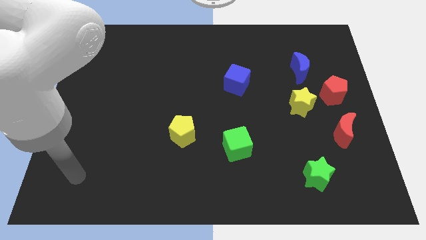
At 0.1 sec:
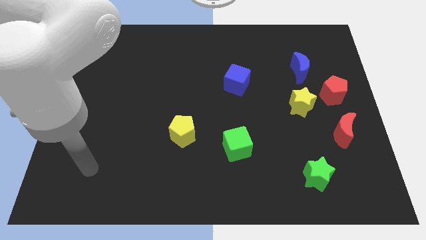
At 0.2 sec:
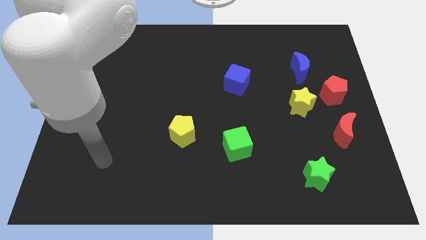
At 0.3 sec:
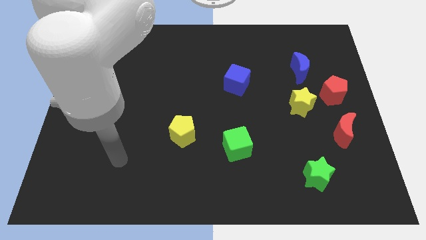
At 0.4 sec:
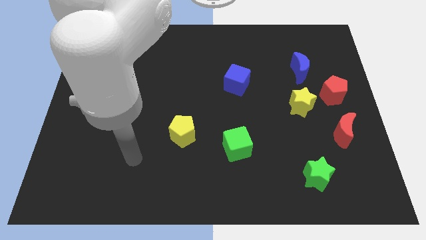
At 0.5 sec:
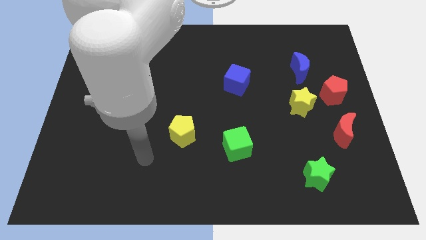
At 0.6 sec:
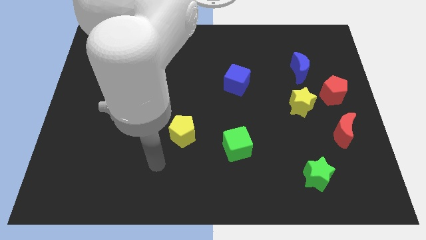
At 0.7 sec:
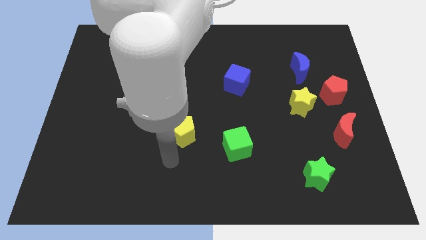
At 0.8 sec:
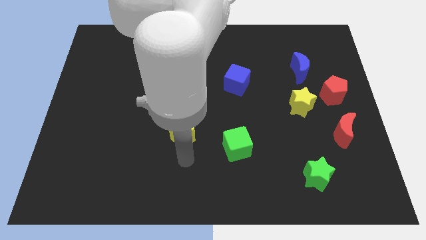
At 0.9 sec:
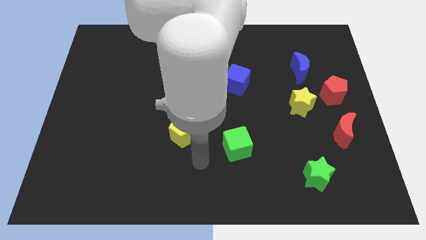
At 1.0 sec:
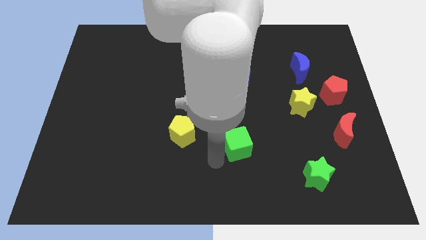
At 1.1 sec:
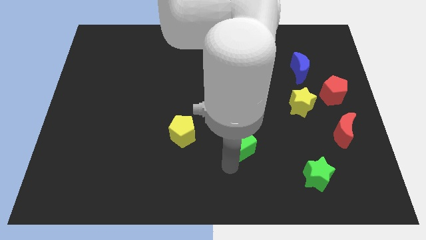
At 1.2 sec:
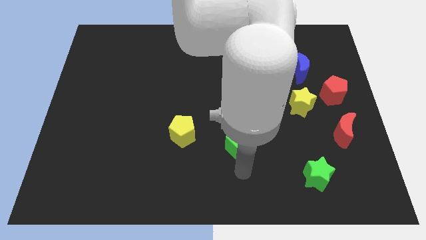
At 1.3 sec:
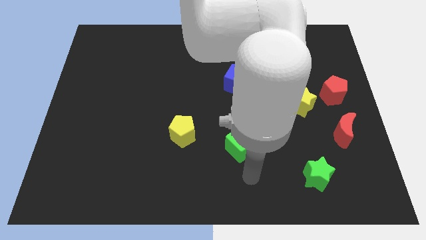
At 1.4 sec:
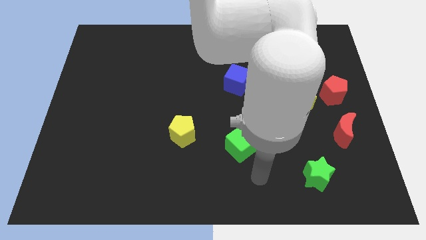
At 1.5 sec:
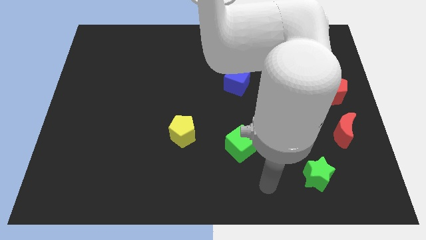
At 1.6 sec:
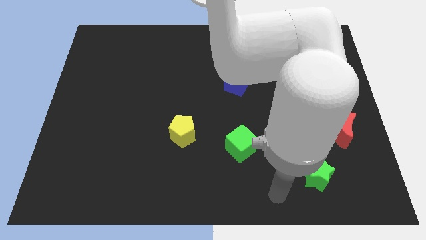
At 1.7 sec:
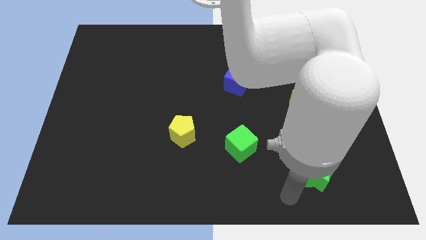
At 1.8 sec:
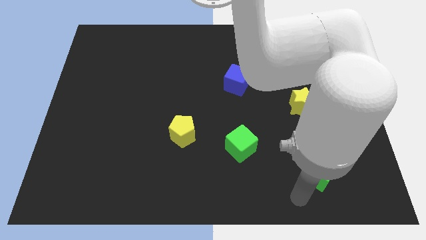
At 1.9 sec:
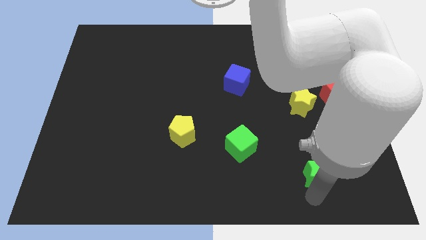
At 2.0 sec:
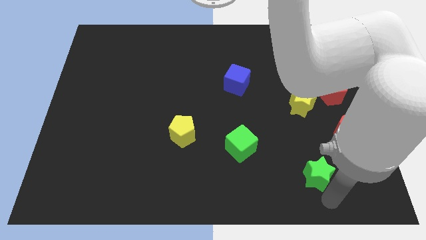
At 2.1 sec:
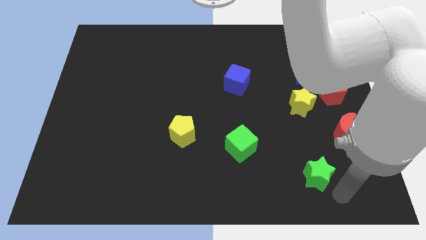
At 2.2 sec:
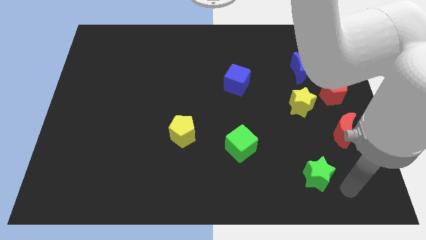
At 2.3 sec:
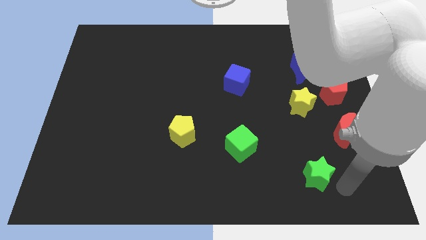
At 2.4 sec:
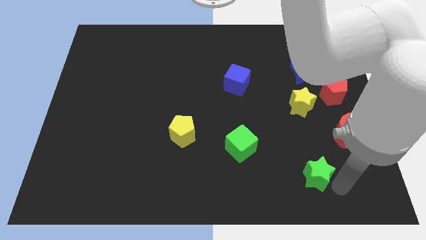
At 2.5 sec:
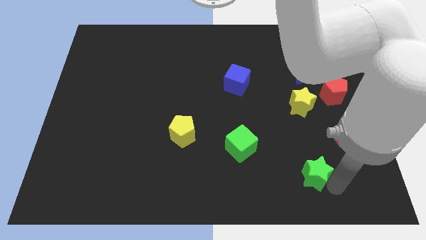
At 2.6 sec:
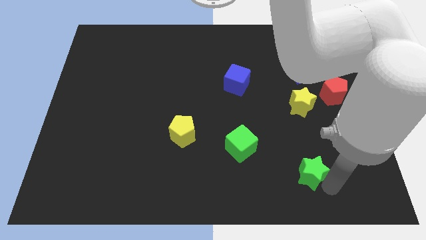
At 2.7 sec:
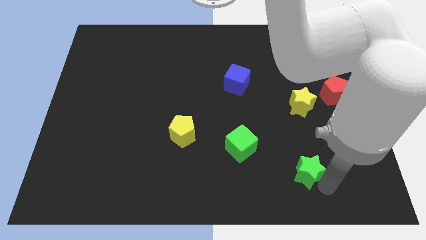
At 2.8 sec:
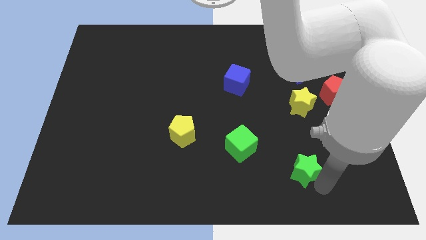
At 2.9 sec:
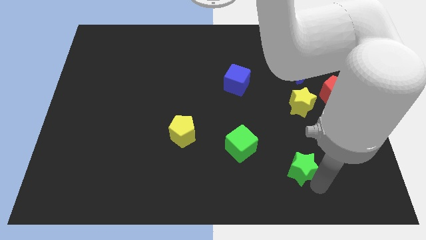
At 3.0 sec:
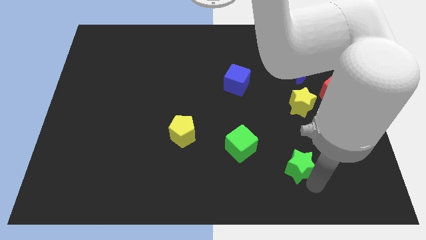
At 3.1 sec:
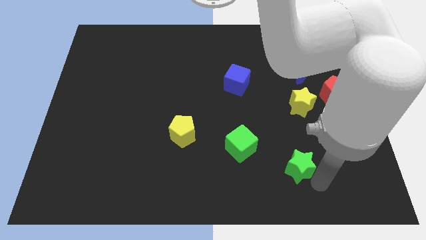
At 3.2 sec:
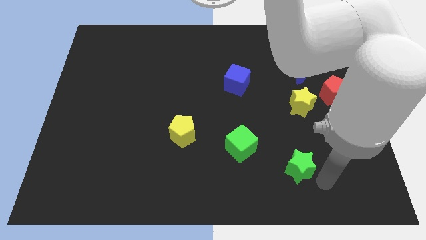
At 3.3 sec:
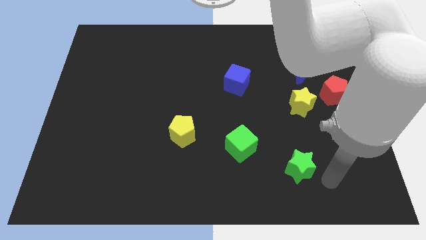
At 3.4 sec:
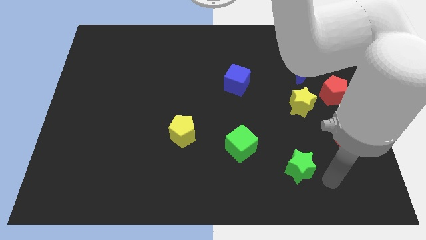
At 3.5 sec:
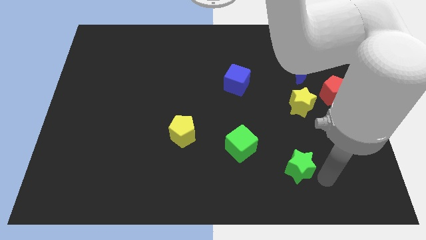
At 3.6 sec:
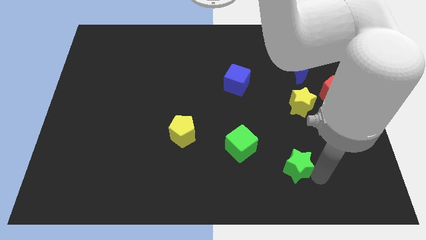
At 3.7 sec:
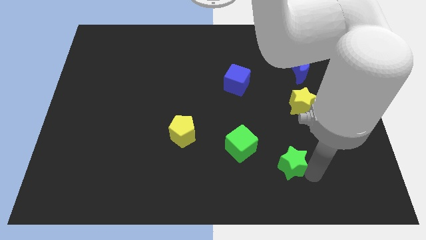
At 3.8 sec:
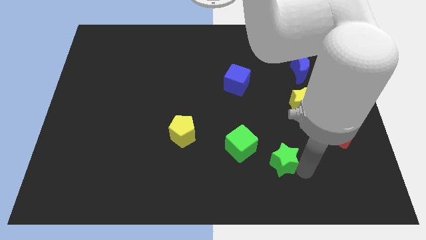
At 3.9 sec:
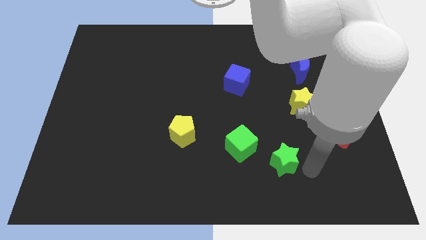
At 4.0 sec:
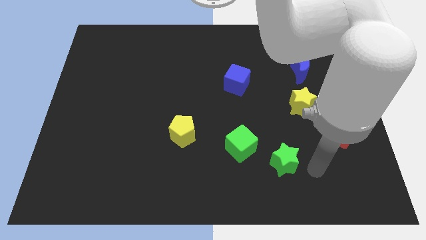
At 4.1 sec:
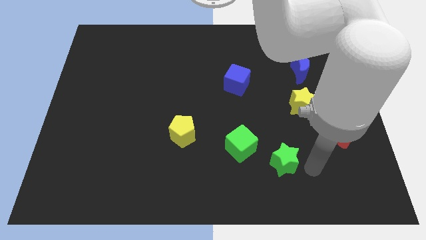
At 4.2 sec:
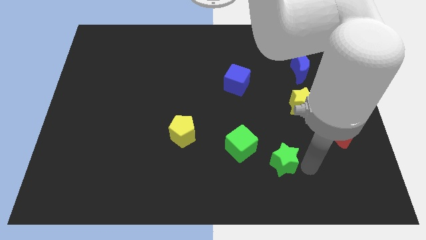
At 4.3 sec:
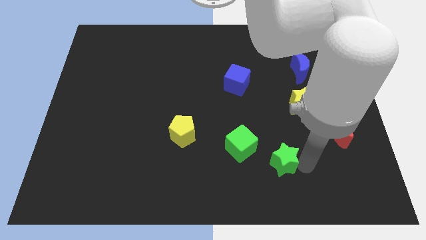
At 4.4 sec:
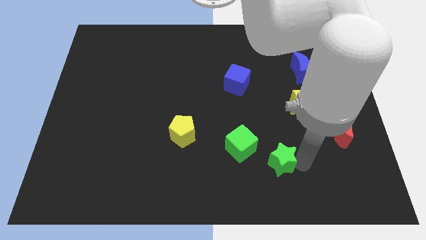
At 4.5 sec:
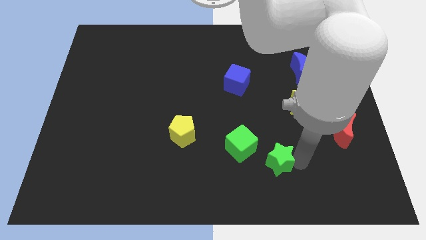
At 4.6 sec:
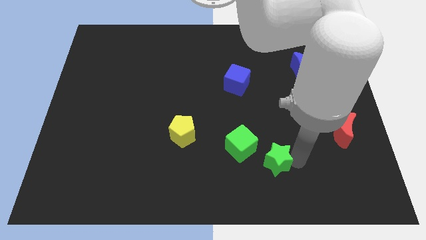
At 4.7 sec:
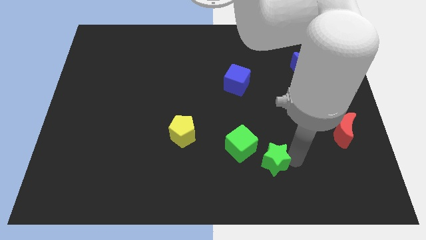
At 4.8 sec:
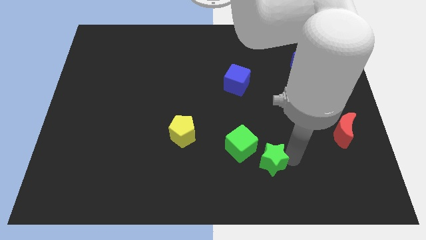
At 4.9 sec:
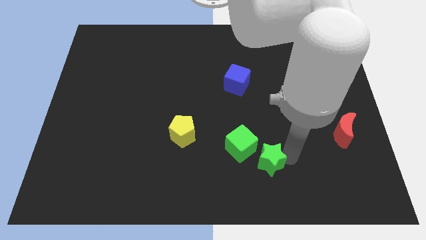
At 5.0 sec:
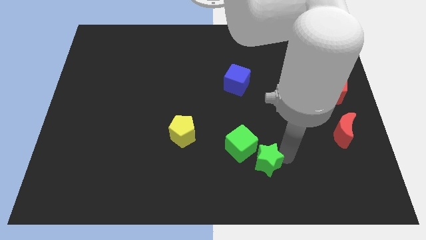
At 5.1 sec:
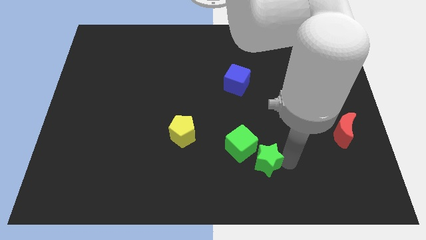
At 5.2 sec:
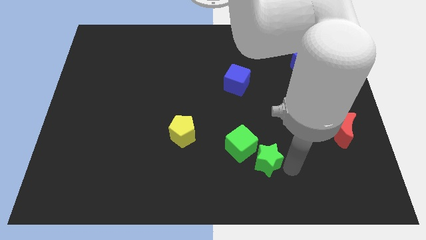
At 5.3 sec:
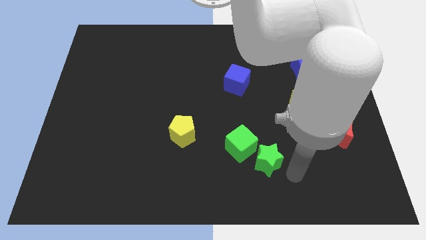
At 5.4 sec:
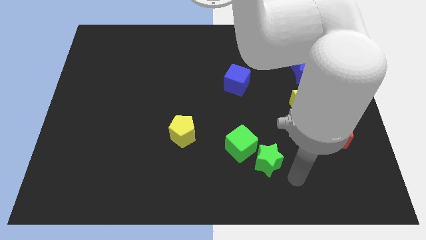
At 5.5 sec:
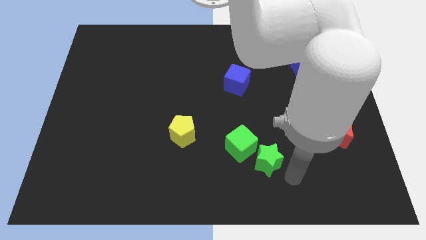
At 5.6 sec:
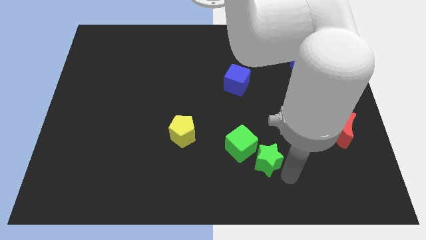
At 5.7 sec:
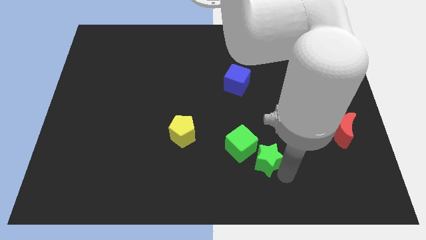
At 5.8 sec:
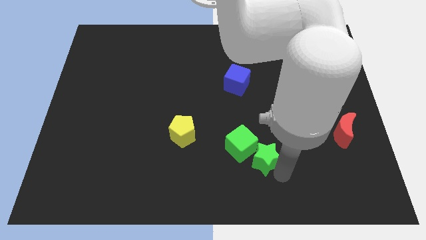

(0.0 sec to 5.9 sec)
move the green star next to the green cube

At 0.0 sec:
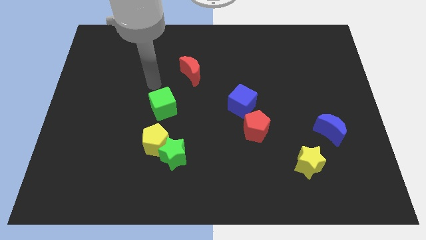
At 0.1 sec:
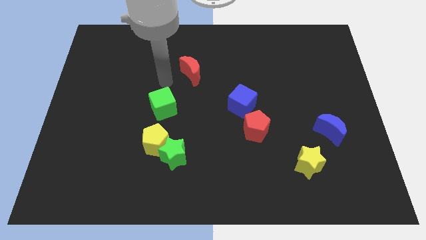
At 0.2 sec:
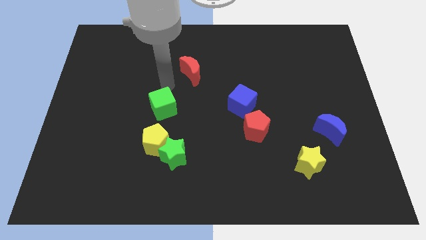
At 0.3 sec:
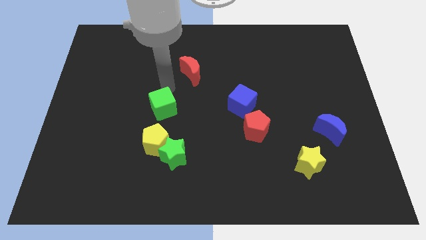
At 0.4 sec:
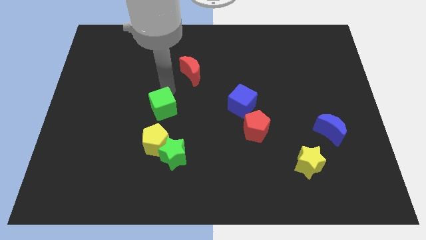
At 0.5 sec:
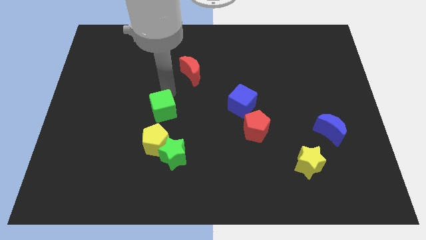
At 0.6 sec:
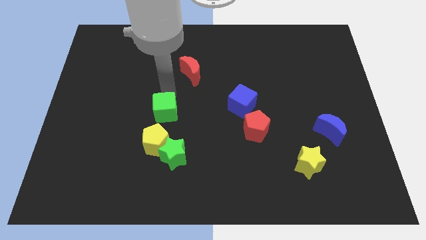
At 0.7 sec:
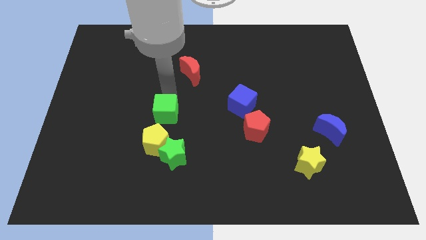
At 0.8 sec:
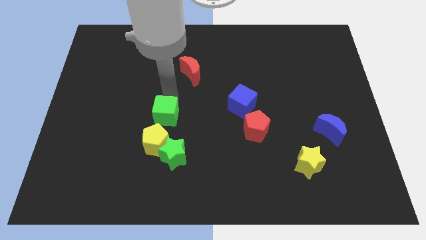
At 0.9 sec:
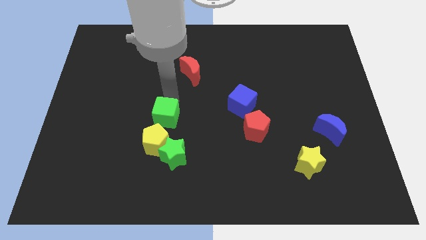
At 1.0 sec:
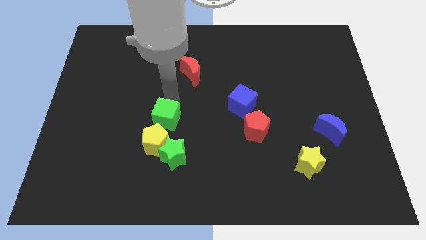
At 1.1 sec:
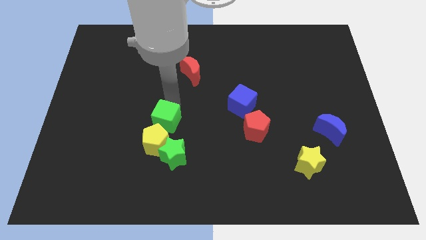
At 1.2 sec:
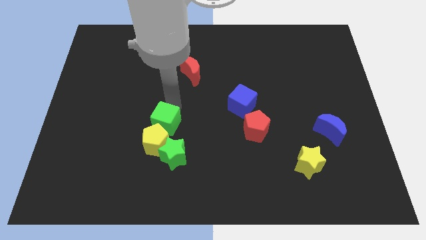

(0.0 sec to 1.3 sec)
move the green cube towards the yellow pentagon
